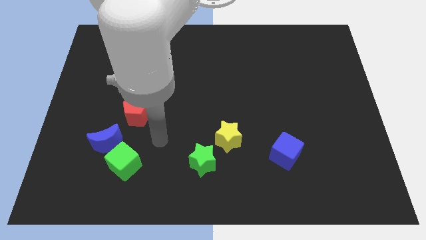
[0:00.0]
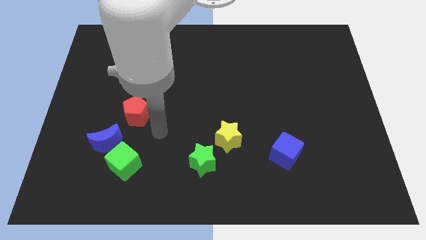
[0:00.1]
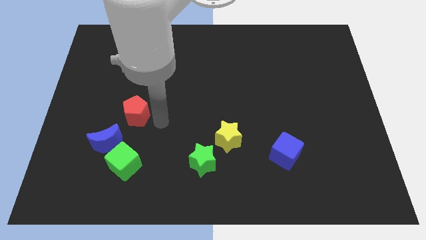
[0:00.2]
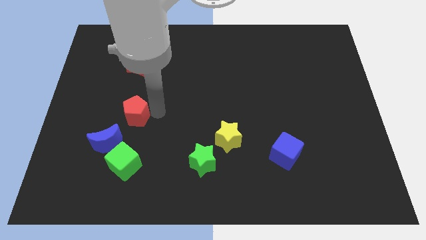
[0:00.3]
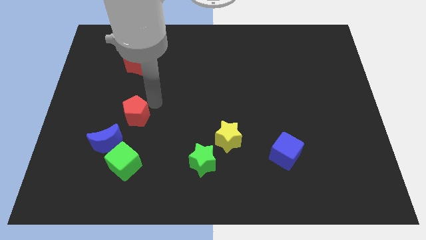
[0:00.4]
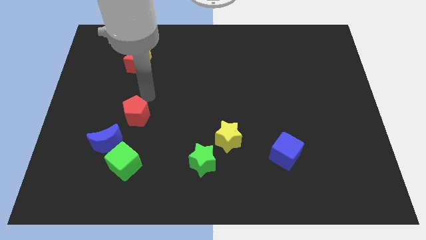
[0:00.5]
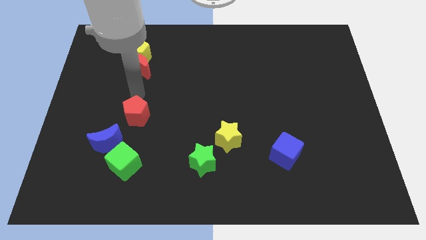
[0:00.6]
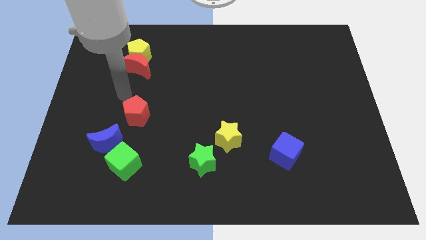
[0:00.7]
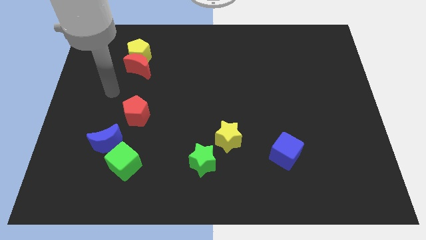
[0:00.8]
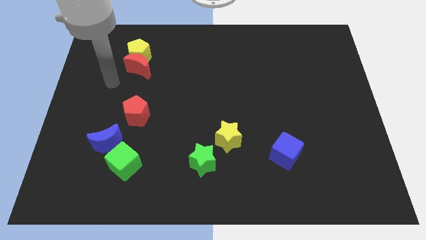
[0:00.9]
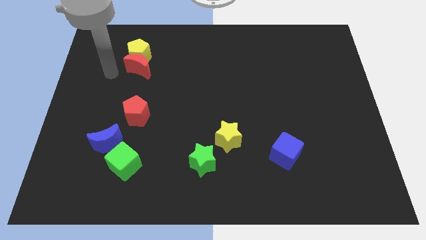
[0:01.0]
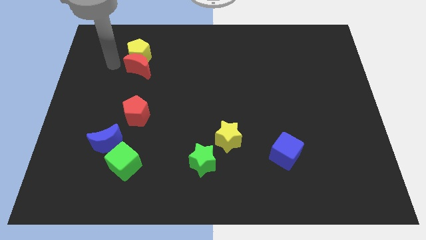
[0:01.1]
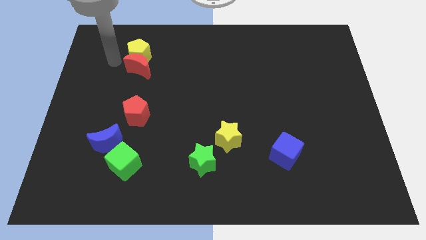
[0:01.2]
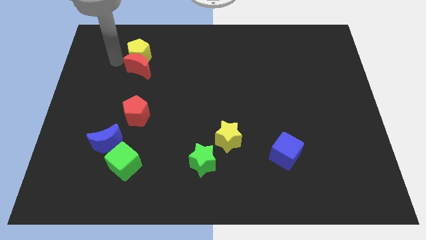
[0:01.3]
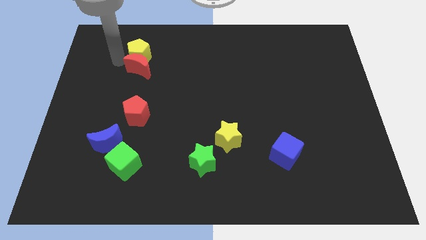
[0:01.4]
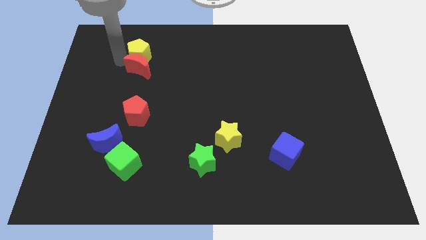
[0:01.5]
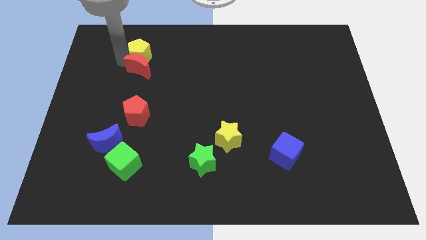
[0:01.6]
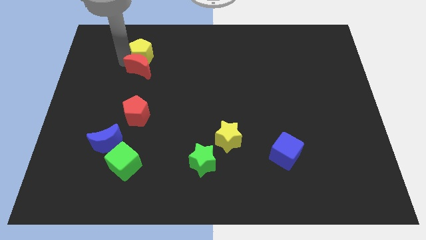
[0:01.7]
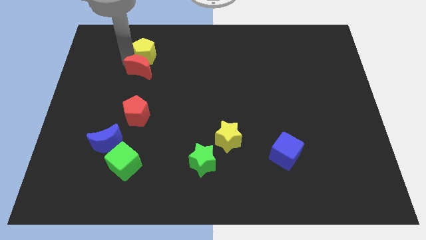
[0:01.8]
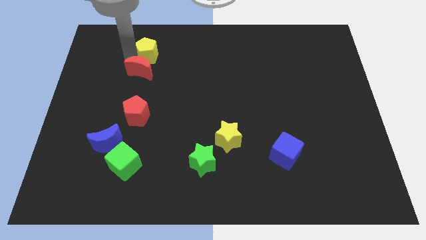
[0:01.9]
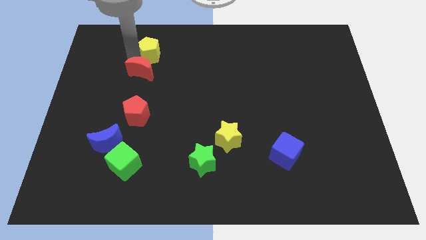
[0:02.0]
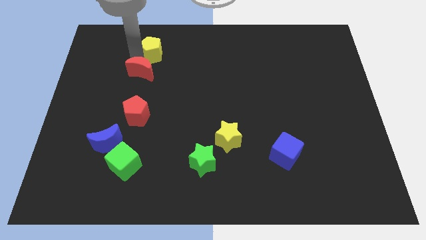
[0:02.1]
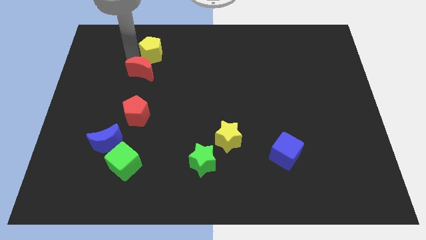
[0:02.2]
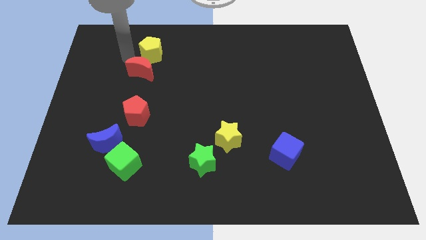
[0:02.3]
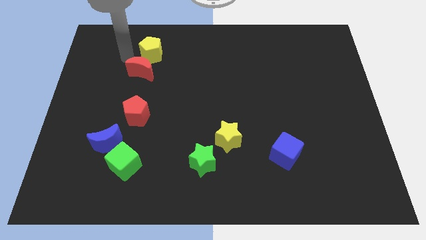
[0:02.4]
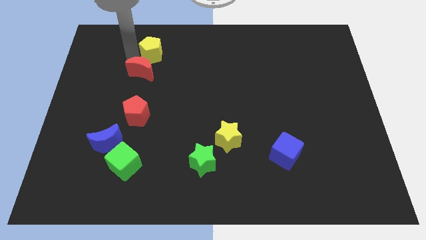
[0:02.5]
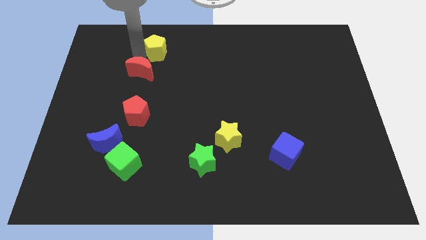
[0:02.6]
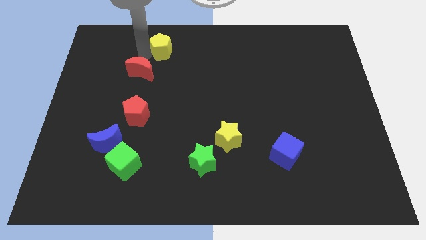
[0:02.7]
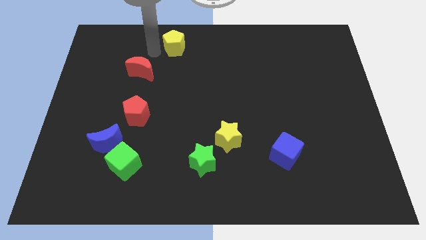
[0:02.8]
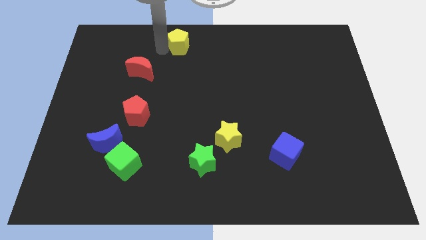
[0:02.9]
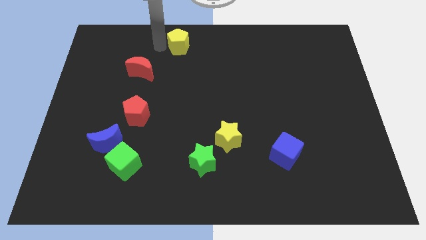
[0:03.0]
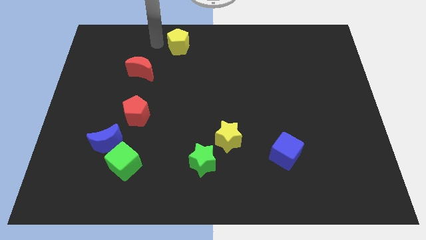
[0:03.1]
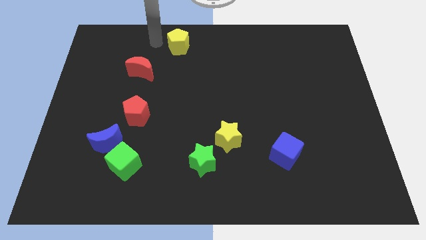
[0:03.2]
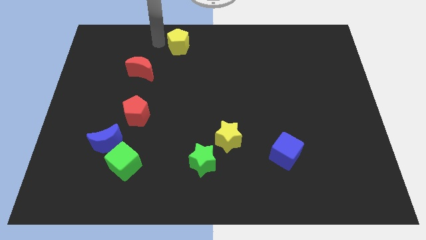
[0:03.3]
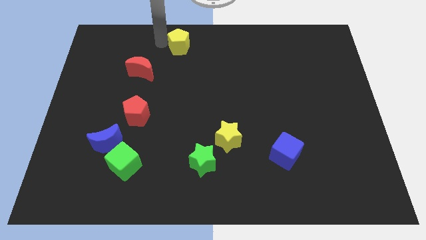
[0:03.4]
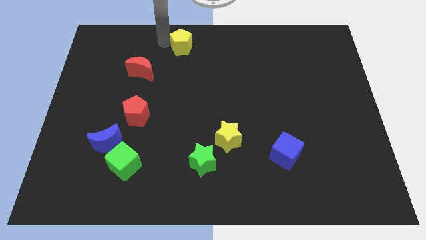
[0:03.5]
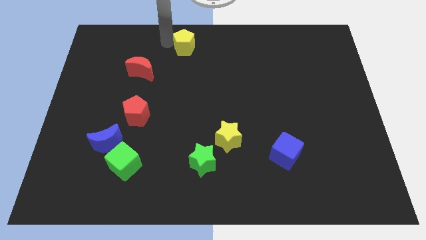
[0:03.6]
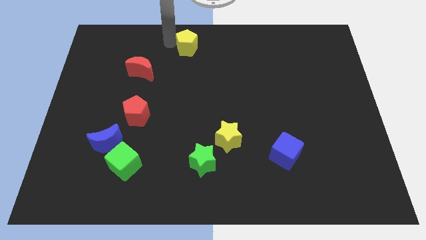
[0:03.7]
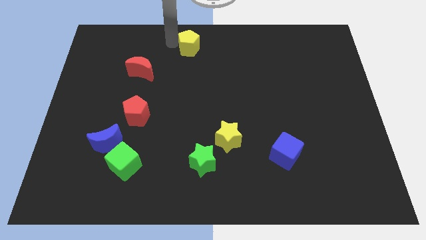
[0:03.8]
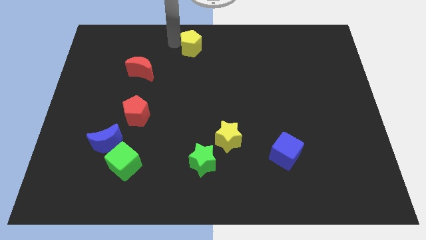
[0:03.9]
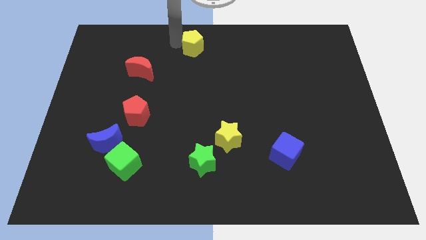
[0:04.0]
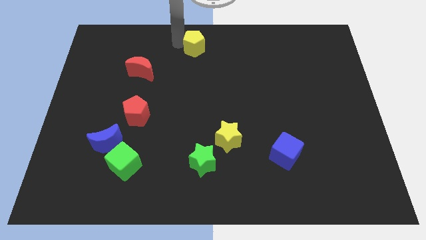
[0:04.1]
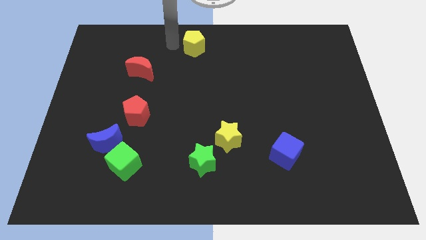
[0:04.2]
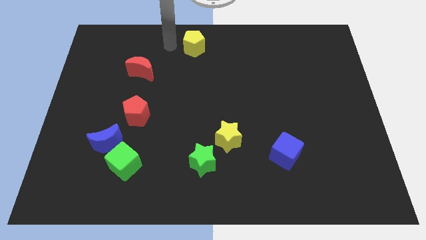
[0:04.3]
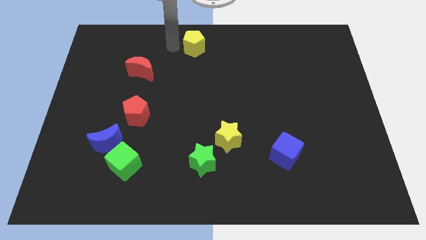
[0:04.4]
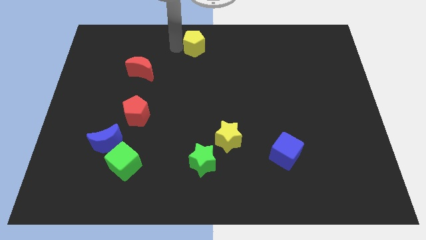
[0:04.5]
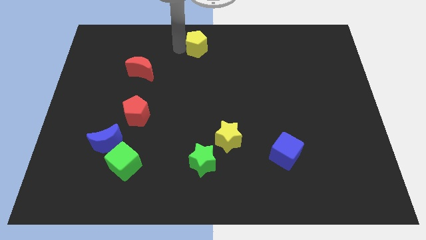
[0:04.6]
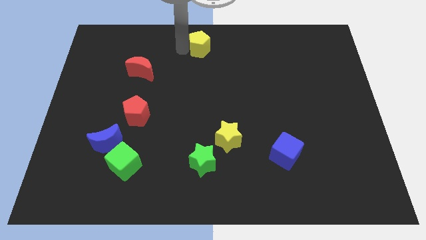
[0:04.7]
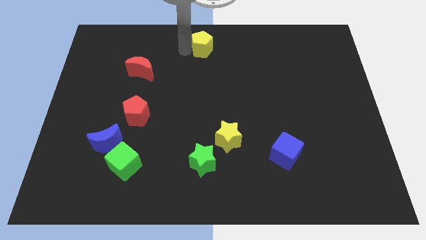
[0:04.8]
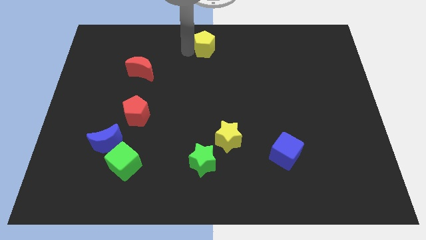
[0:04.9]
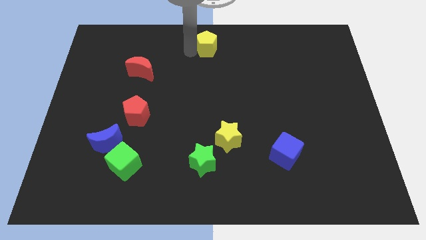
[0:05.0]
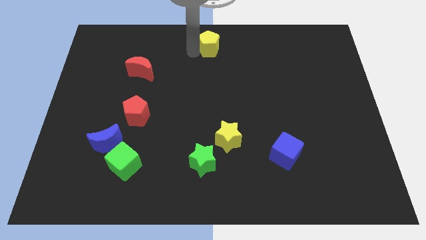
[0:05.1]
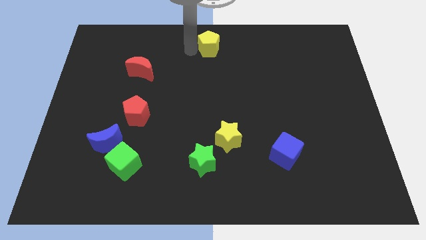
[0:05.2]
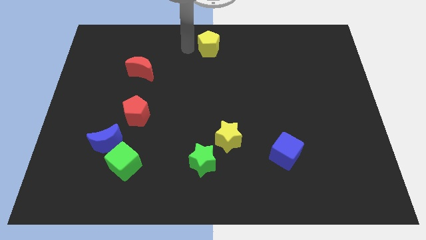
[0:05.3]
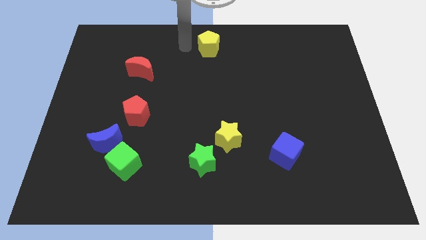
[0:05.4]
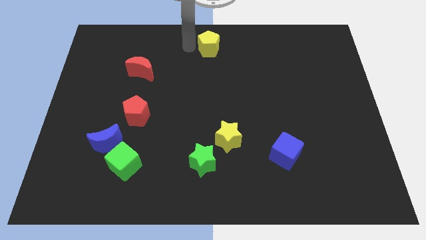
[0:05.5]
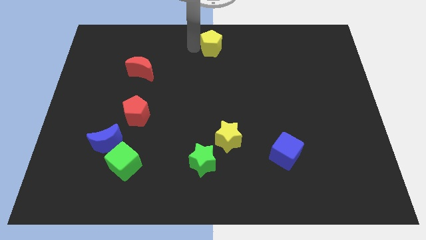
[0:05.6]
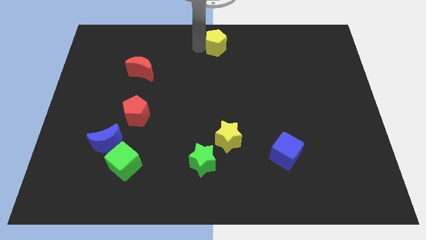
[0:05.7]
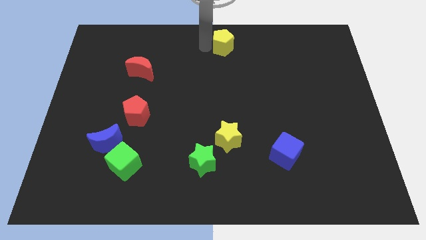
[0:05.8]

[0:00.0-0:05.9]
move the yellow pentagon to the right

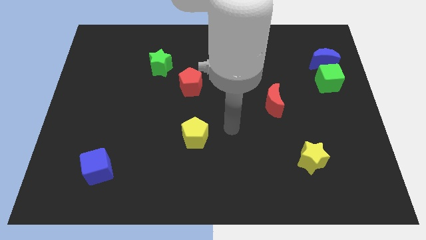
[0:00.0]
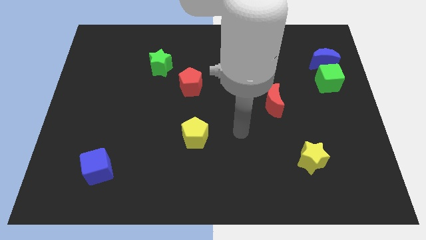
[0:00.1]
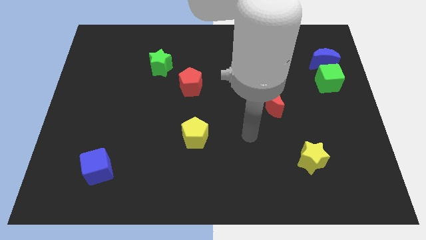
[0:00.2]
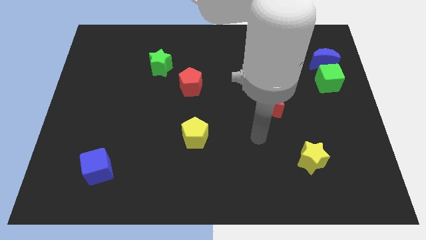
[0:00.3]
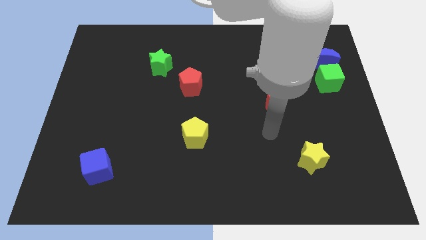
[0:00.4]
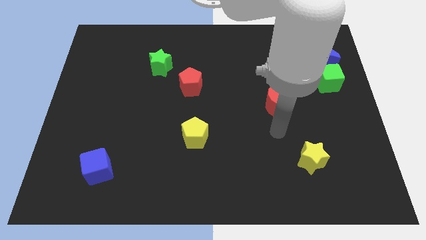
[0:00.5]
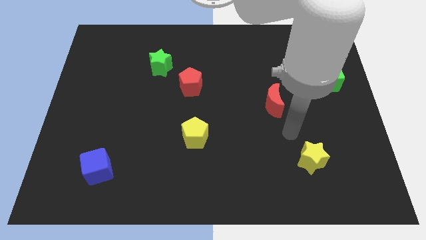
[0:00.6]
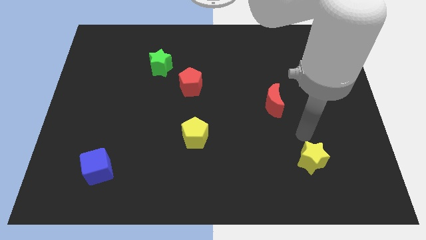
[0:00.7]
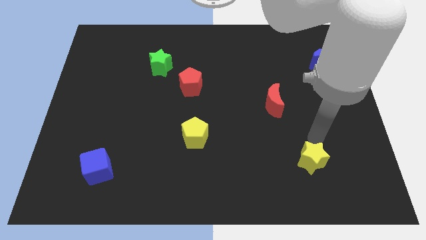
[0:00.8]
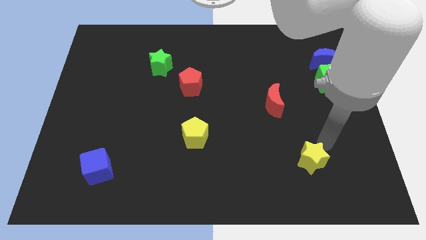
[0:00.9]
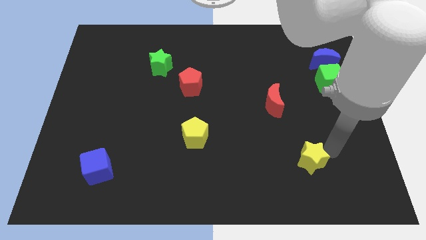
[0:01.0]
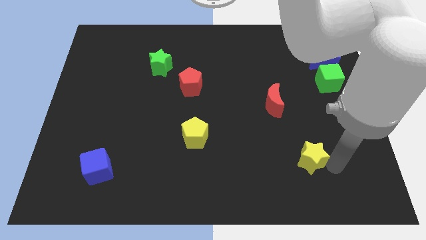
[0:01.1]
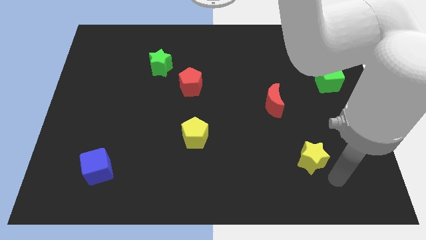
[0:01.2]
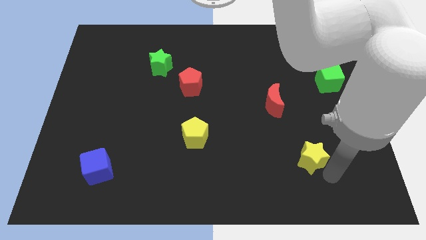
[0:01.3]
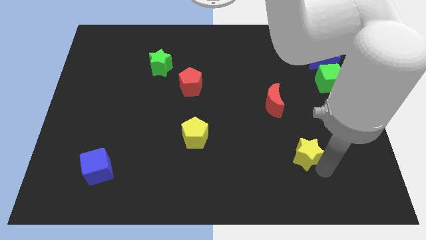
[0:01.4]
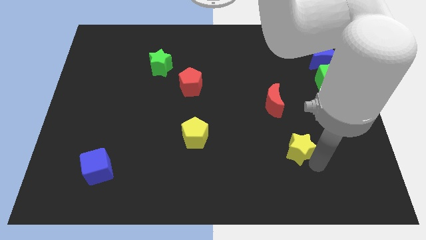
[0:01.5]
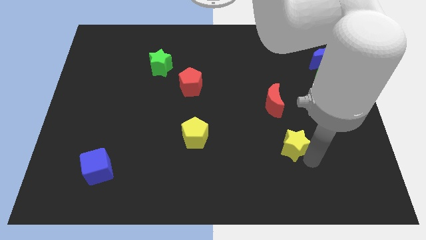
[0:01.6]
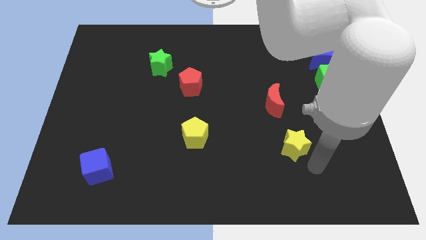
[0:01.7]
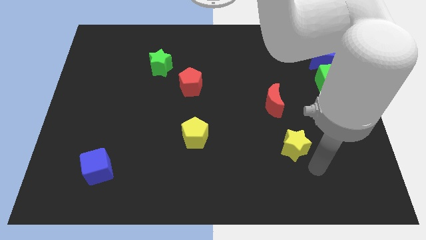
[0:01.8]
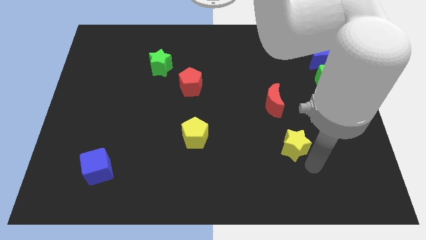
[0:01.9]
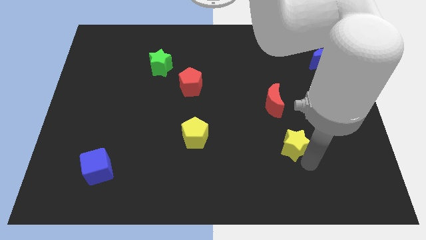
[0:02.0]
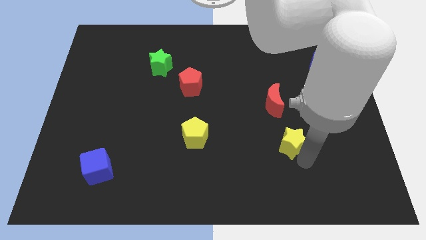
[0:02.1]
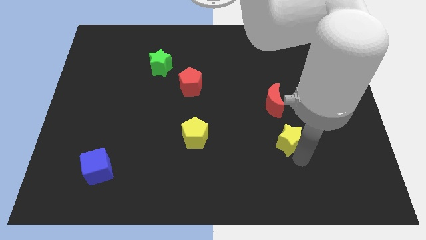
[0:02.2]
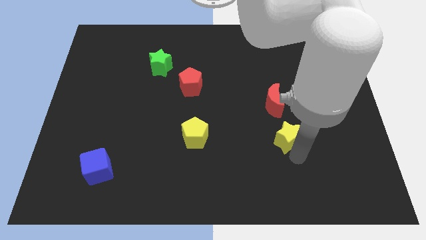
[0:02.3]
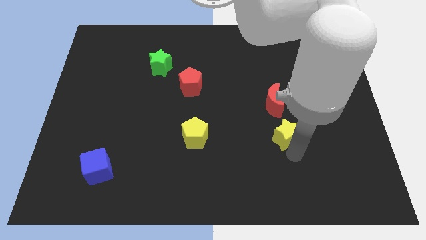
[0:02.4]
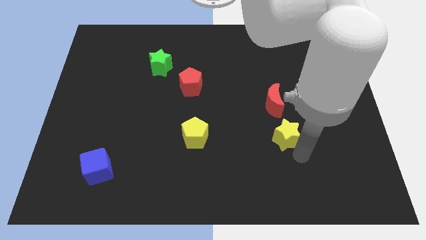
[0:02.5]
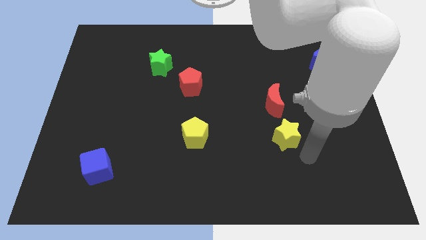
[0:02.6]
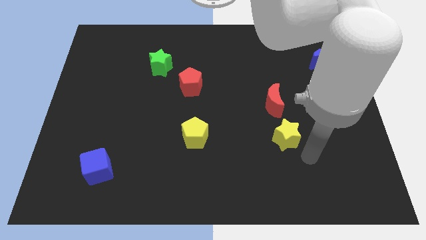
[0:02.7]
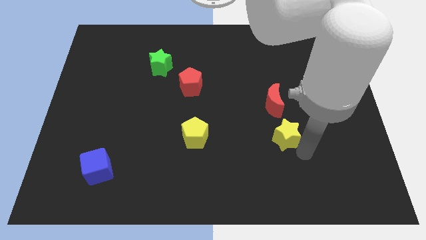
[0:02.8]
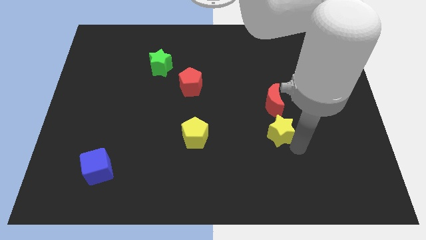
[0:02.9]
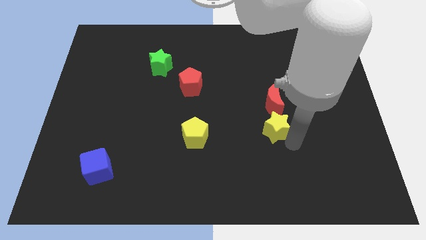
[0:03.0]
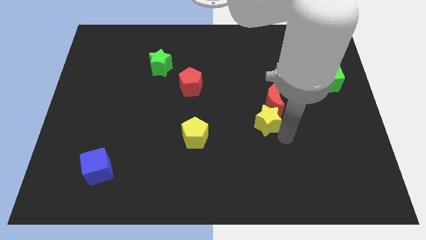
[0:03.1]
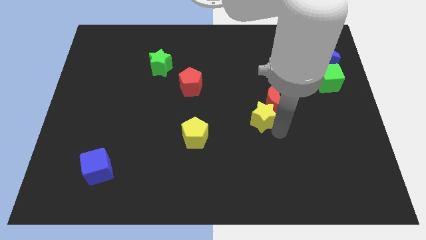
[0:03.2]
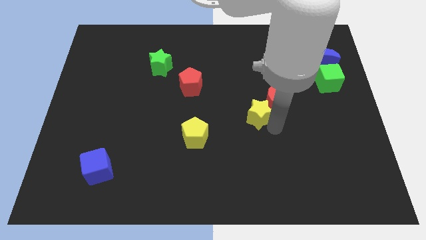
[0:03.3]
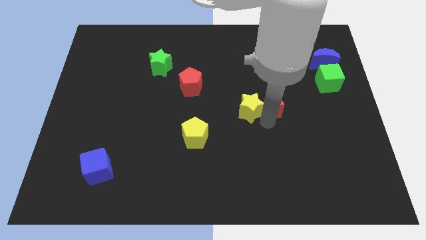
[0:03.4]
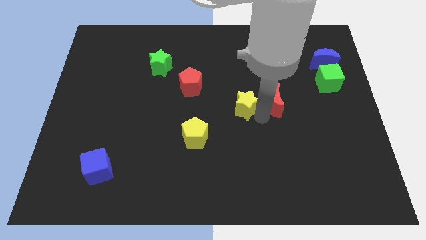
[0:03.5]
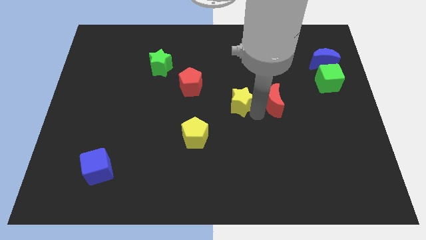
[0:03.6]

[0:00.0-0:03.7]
slide the yellow star upwards and then left
